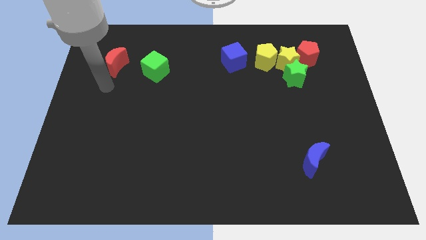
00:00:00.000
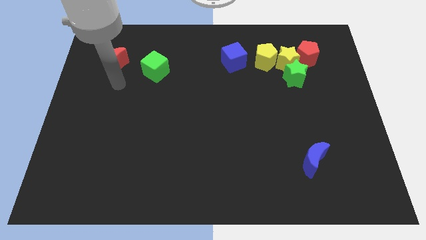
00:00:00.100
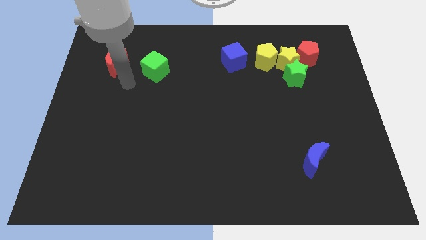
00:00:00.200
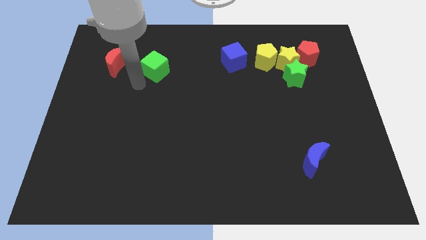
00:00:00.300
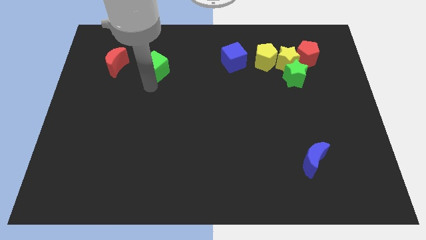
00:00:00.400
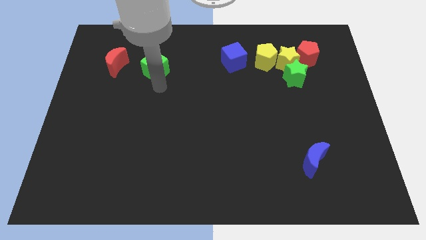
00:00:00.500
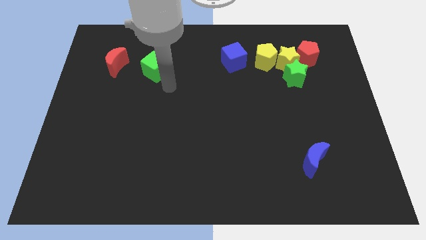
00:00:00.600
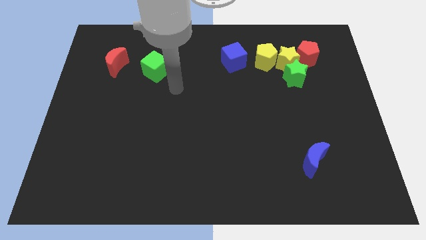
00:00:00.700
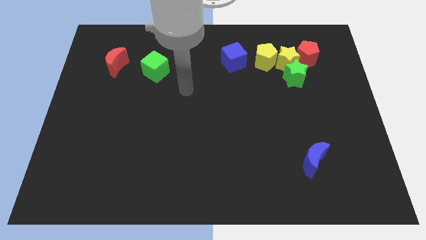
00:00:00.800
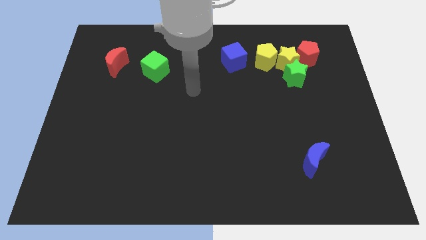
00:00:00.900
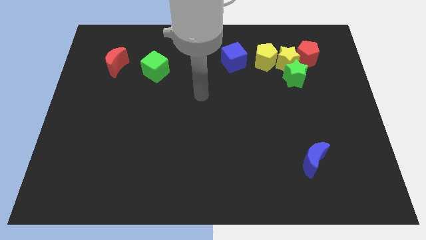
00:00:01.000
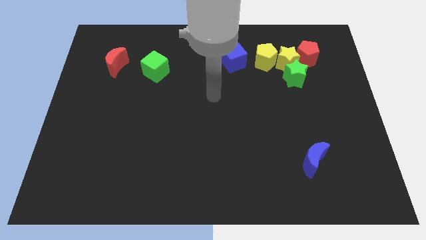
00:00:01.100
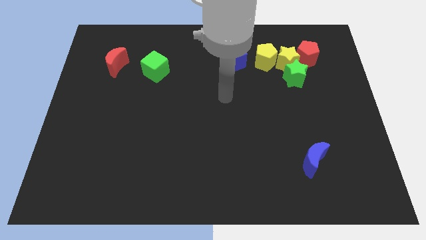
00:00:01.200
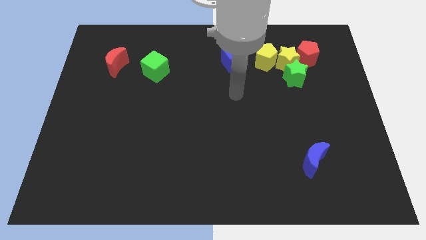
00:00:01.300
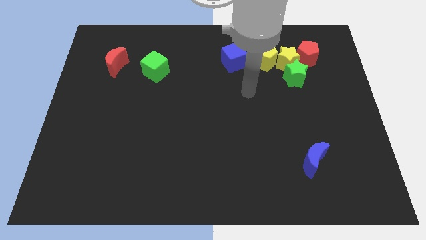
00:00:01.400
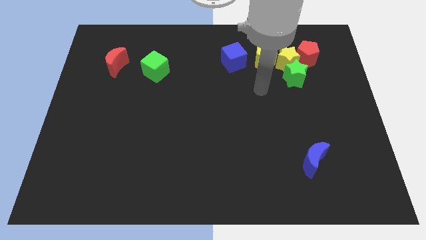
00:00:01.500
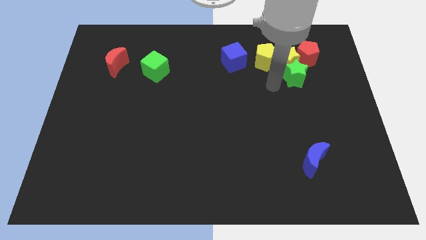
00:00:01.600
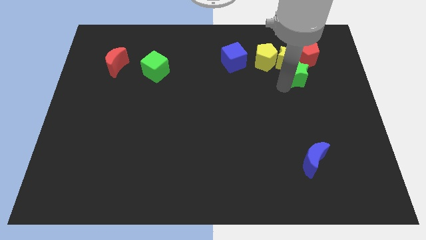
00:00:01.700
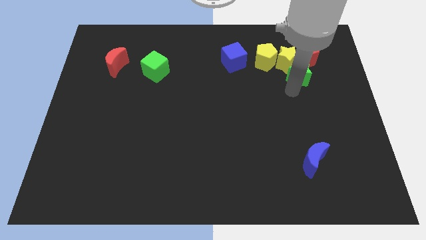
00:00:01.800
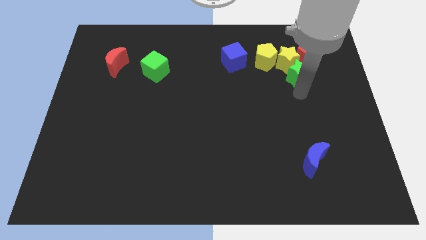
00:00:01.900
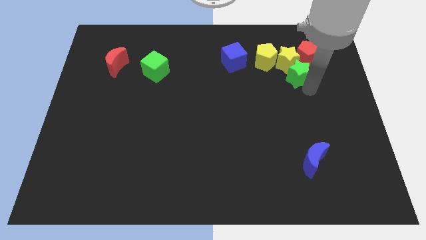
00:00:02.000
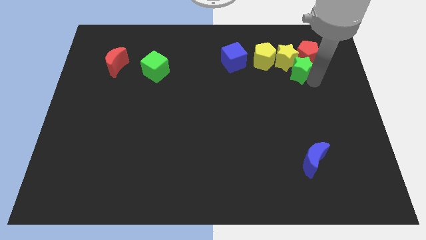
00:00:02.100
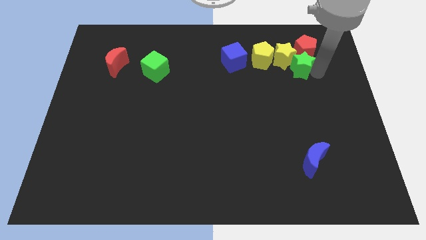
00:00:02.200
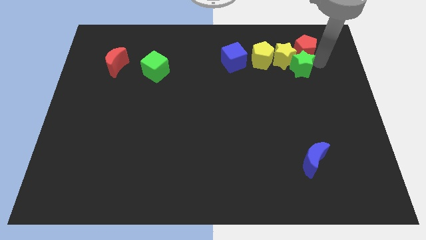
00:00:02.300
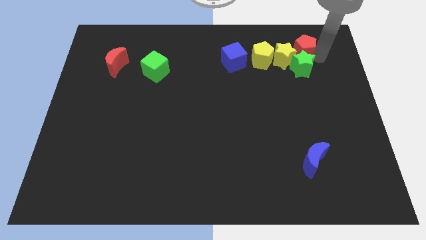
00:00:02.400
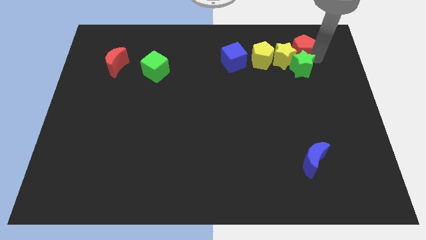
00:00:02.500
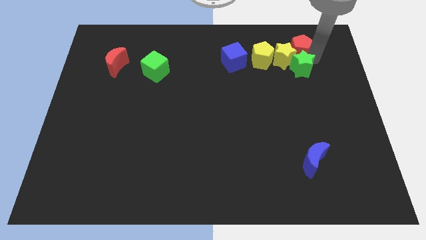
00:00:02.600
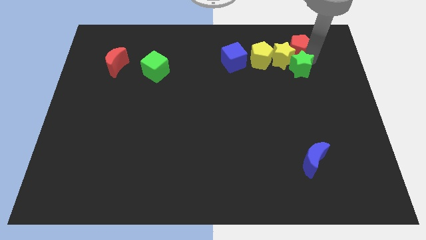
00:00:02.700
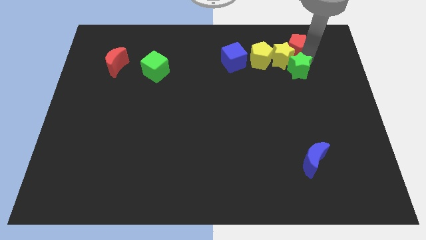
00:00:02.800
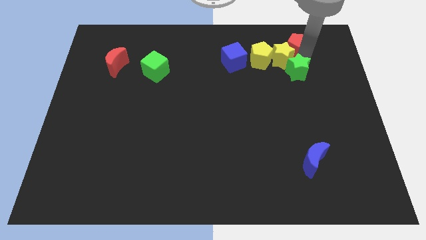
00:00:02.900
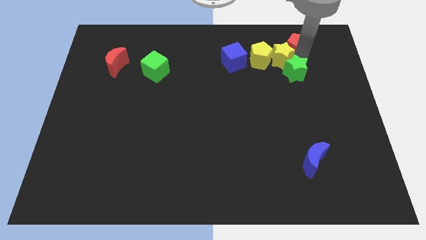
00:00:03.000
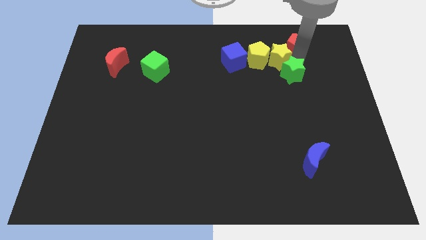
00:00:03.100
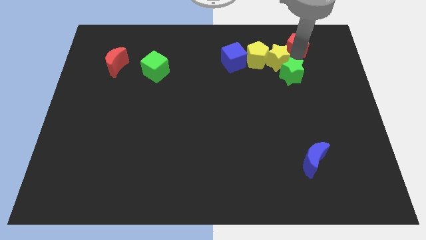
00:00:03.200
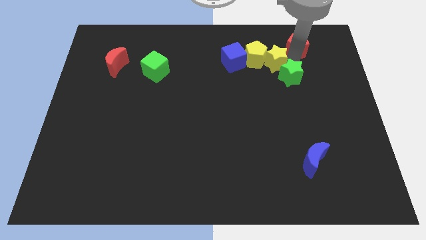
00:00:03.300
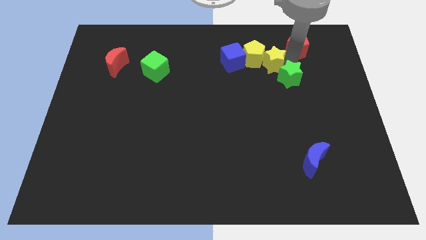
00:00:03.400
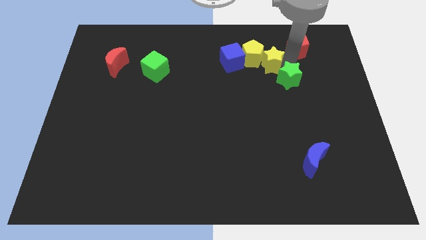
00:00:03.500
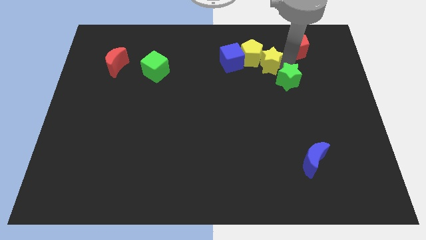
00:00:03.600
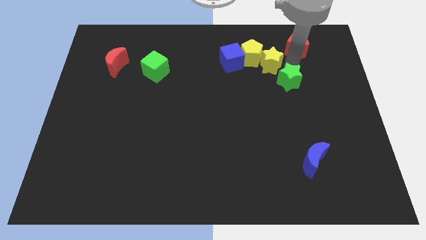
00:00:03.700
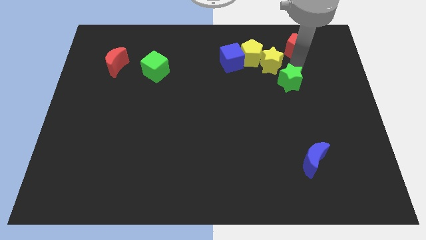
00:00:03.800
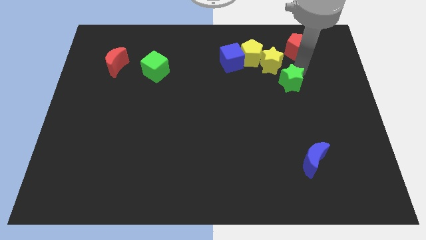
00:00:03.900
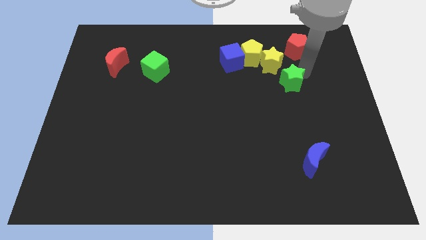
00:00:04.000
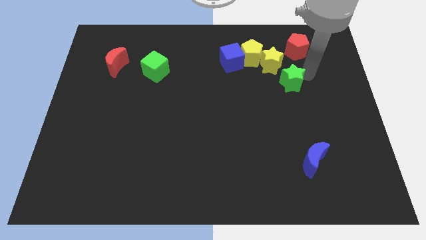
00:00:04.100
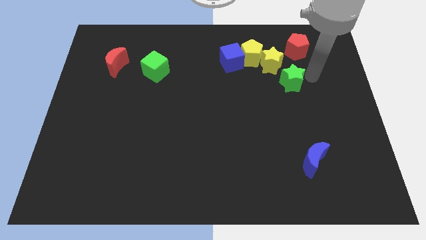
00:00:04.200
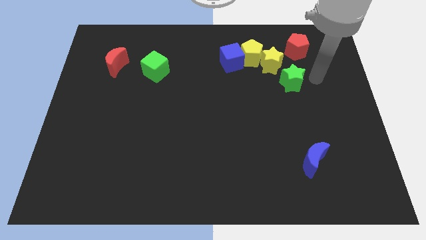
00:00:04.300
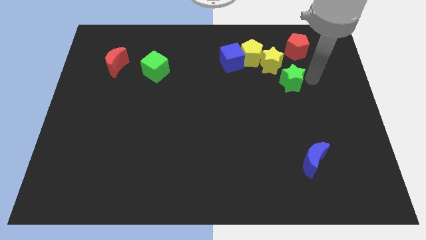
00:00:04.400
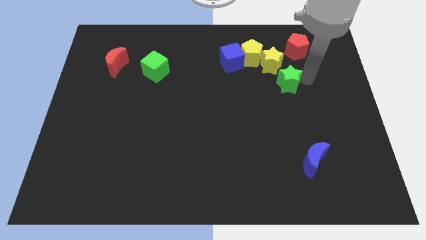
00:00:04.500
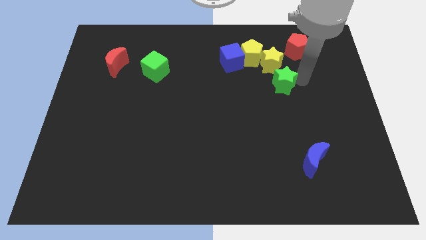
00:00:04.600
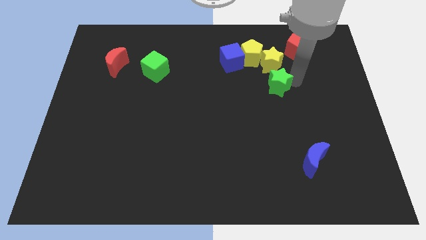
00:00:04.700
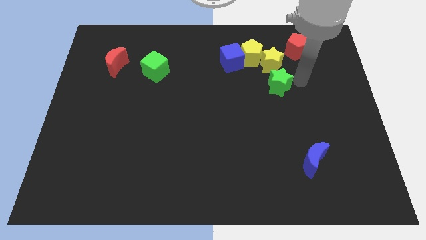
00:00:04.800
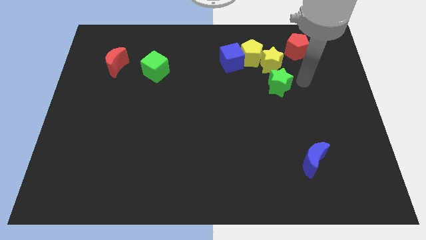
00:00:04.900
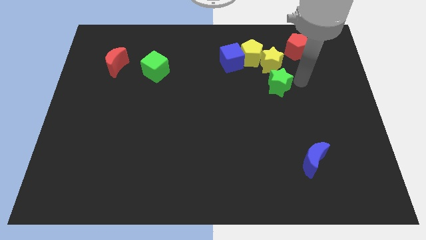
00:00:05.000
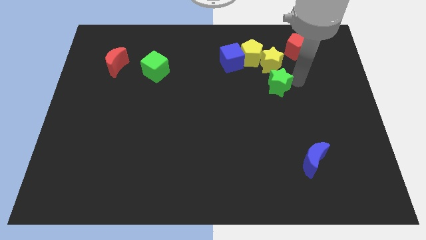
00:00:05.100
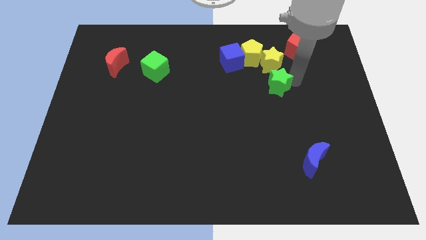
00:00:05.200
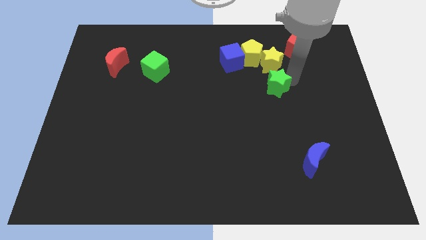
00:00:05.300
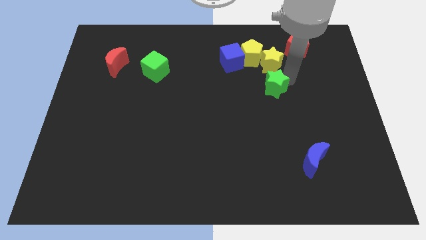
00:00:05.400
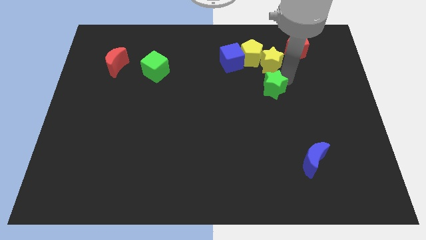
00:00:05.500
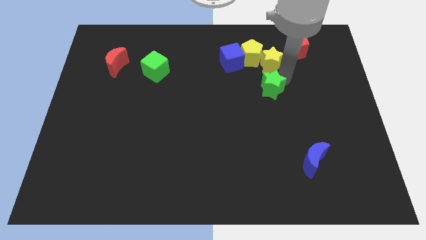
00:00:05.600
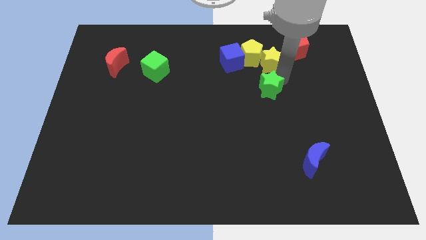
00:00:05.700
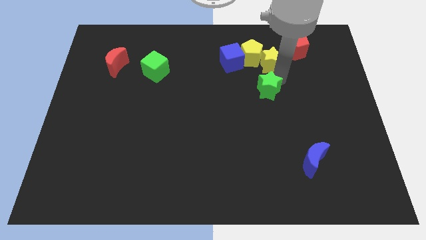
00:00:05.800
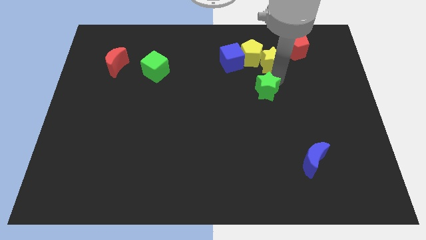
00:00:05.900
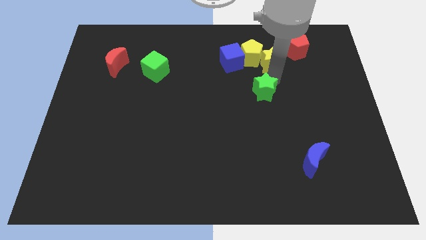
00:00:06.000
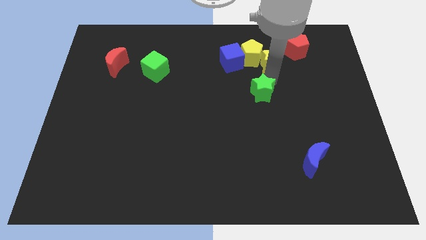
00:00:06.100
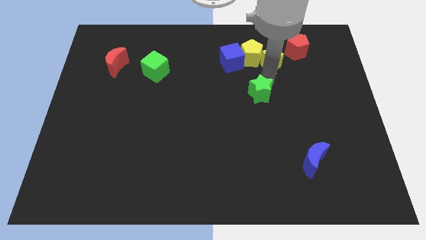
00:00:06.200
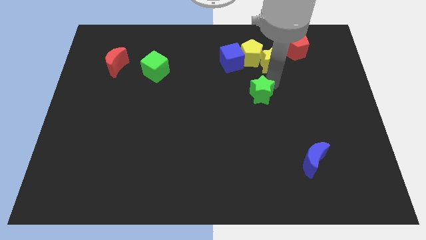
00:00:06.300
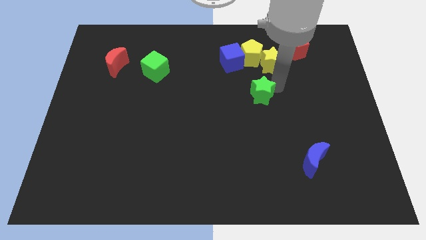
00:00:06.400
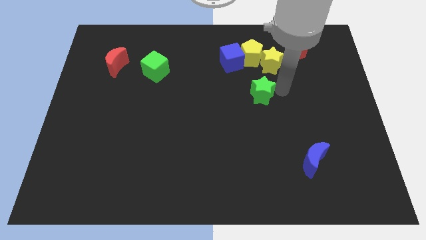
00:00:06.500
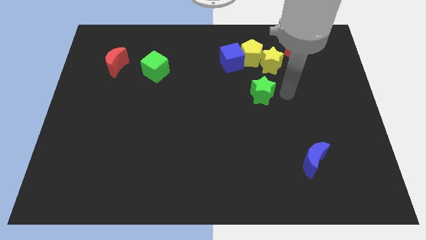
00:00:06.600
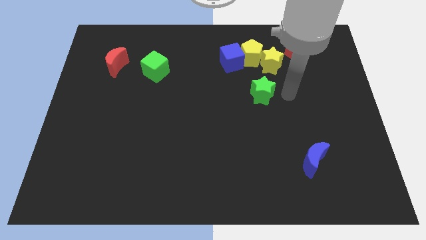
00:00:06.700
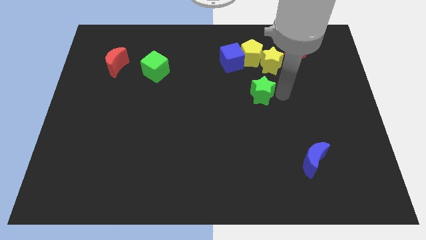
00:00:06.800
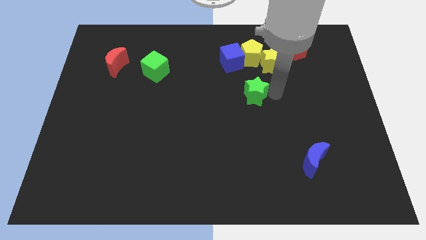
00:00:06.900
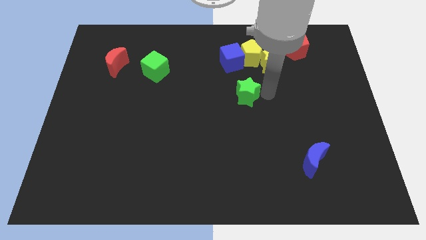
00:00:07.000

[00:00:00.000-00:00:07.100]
slide the green star to the bottom of the blue cube
